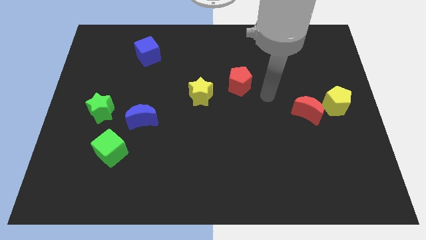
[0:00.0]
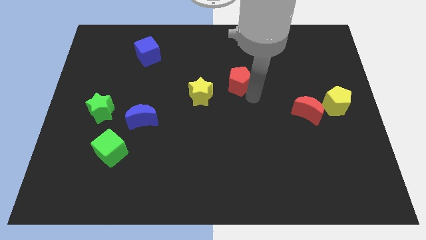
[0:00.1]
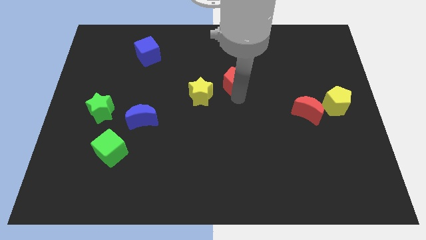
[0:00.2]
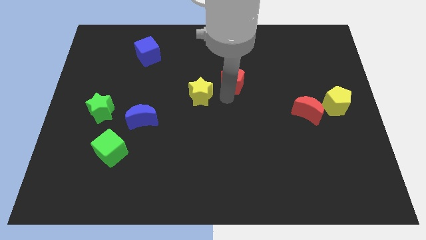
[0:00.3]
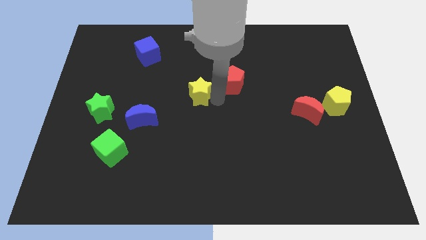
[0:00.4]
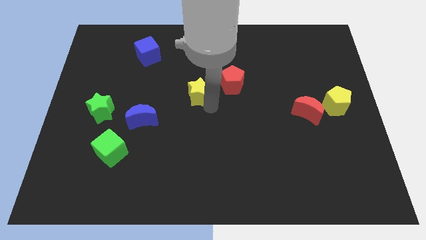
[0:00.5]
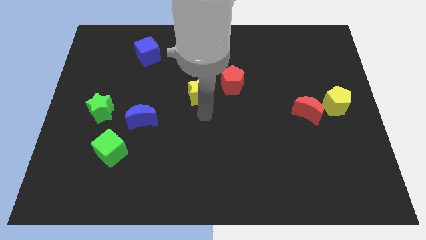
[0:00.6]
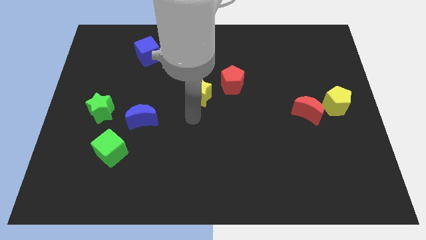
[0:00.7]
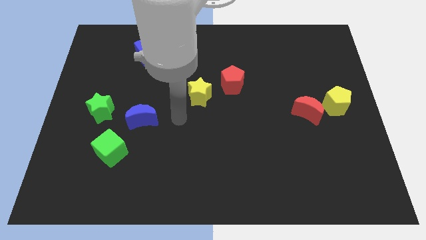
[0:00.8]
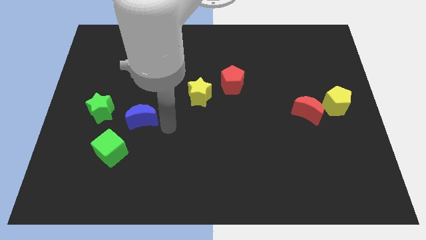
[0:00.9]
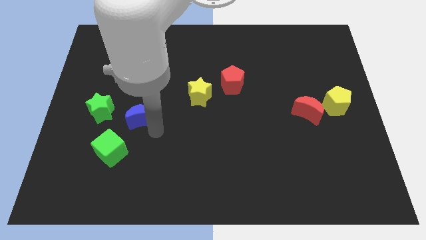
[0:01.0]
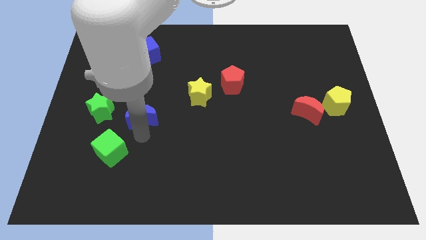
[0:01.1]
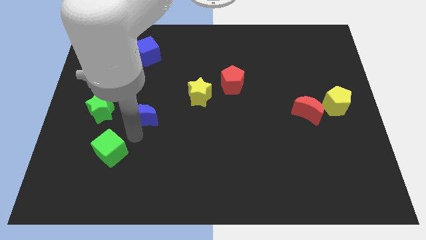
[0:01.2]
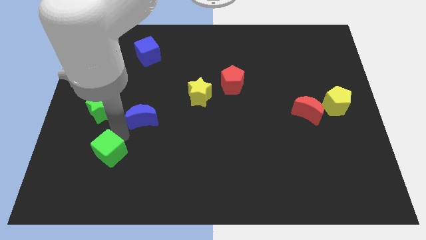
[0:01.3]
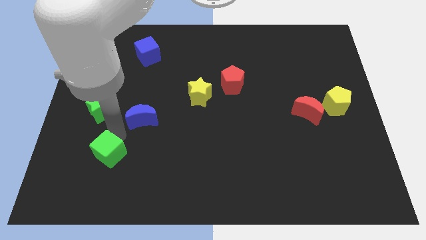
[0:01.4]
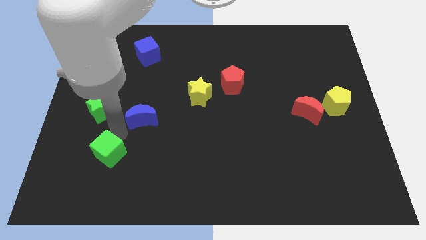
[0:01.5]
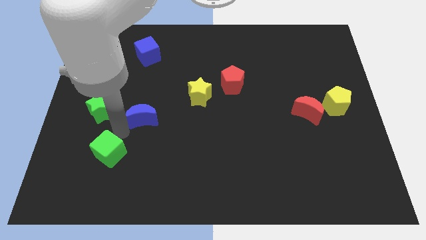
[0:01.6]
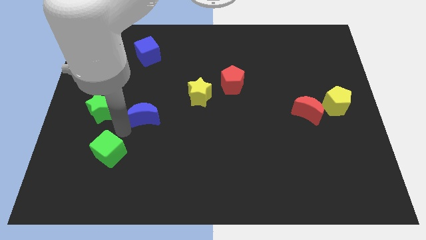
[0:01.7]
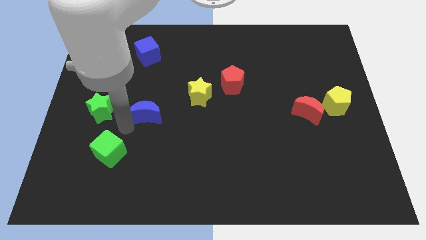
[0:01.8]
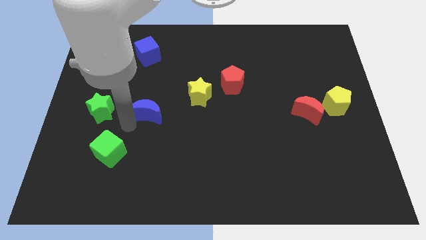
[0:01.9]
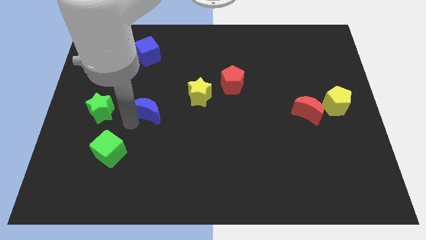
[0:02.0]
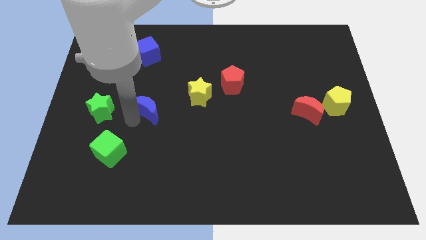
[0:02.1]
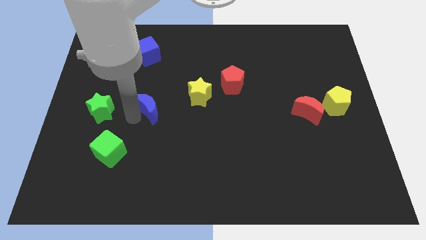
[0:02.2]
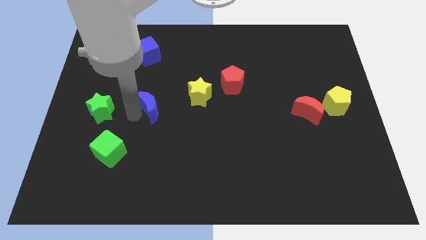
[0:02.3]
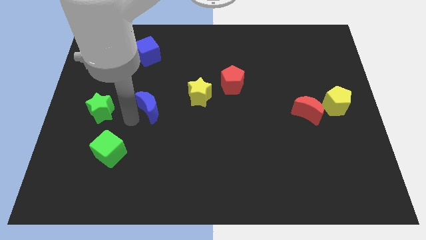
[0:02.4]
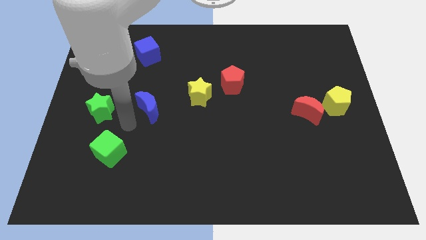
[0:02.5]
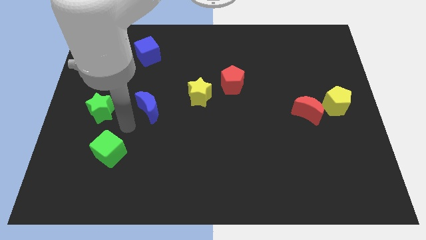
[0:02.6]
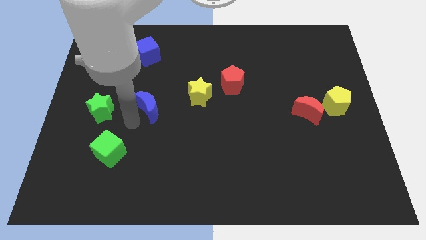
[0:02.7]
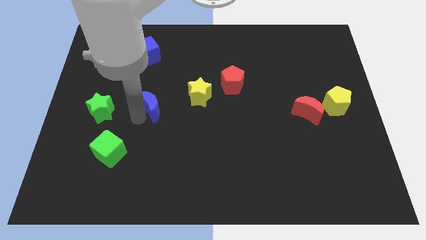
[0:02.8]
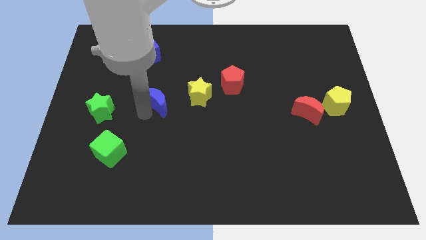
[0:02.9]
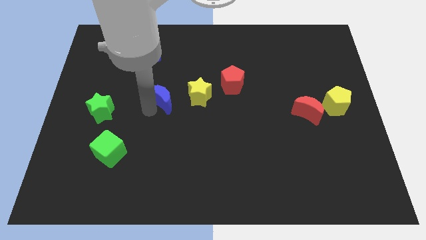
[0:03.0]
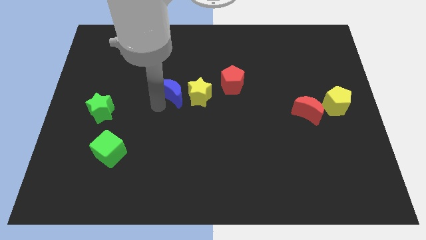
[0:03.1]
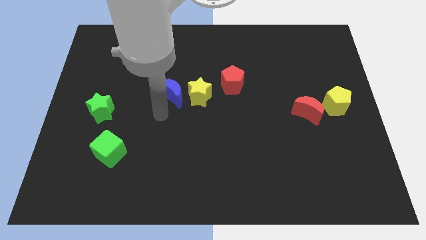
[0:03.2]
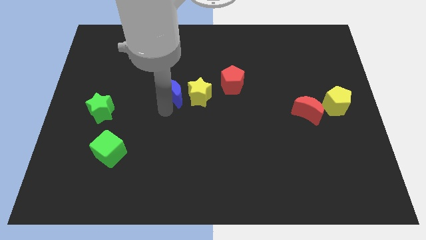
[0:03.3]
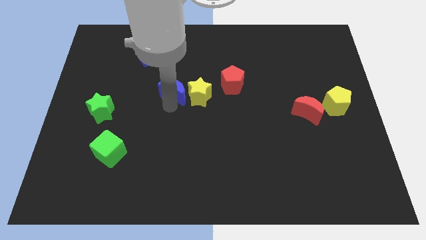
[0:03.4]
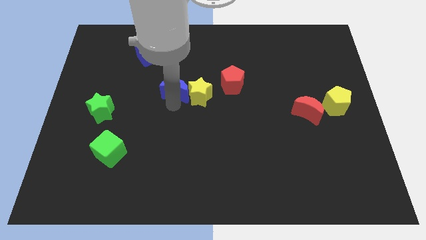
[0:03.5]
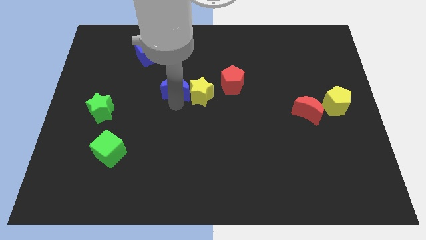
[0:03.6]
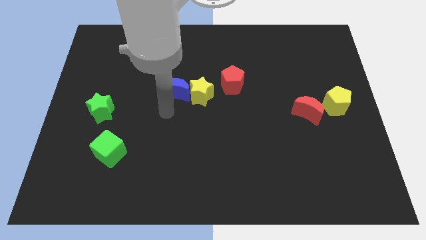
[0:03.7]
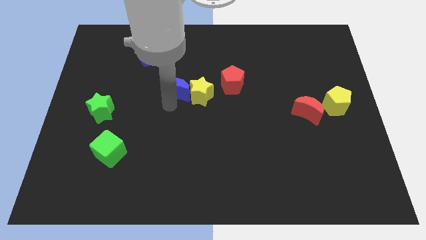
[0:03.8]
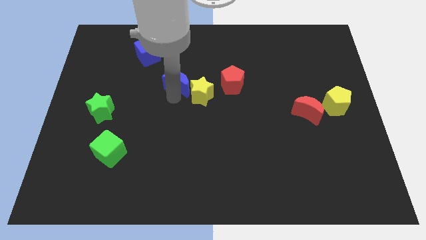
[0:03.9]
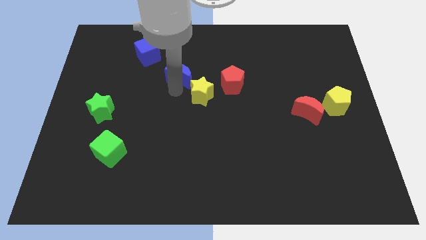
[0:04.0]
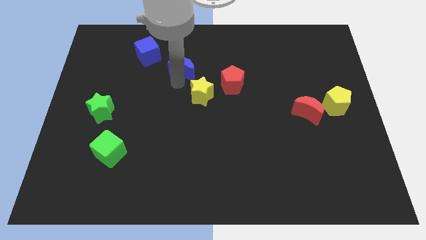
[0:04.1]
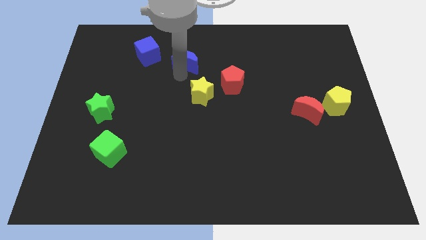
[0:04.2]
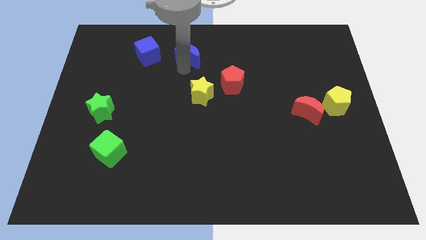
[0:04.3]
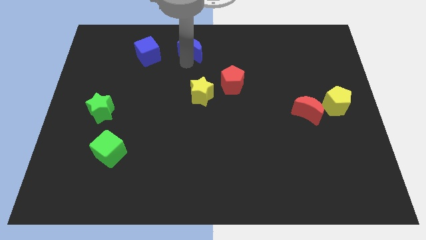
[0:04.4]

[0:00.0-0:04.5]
put the blue moon to the top

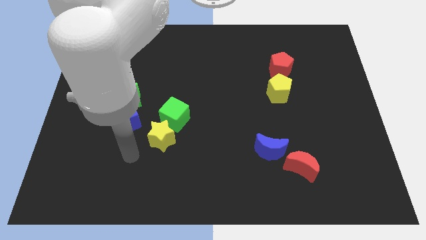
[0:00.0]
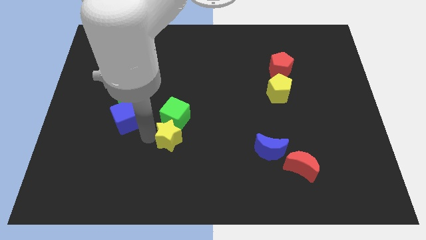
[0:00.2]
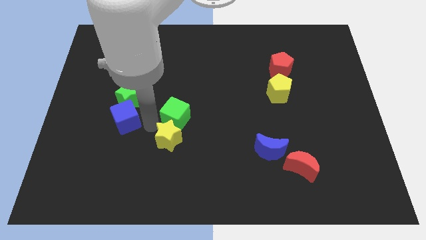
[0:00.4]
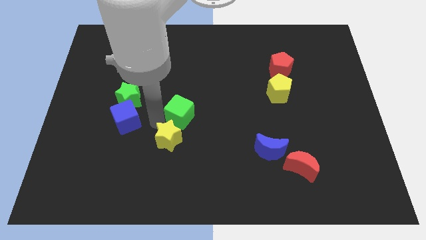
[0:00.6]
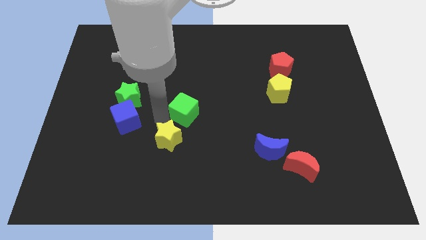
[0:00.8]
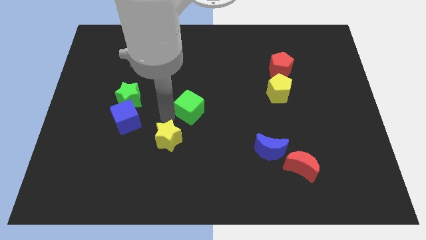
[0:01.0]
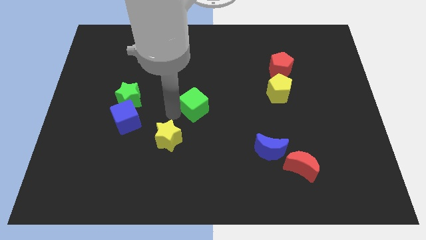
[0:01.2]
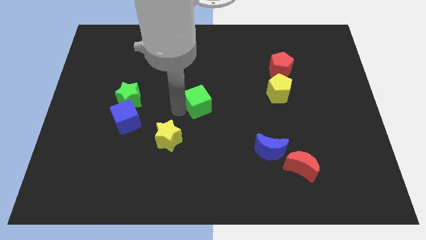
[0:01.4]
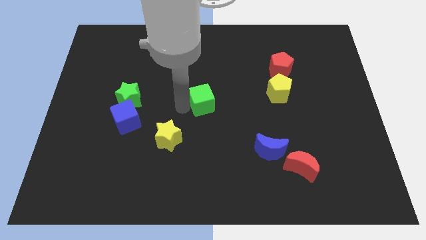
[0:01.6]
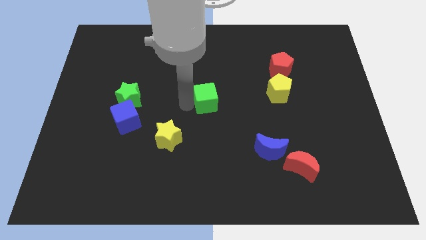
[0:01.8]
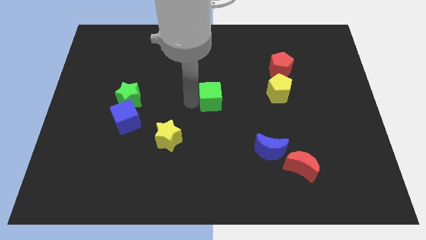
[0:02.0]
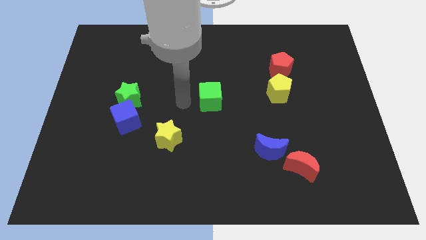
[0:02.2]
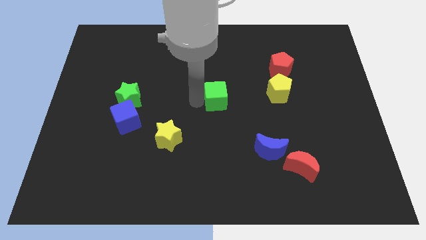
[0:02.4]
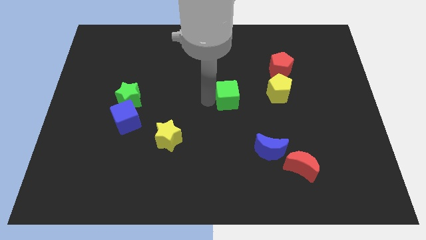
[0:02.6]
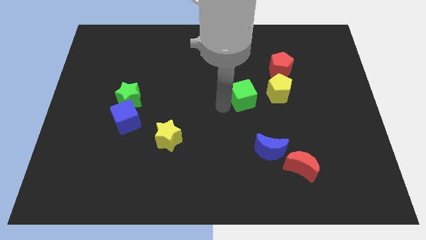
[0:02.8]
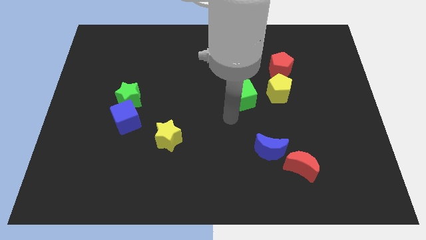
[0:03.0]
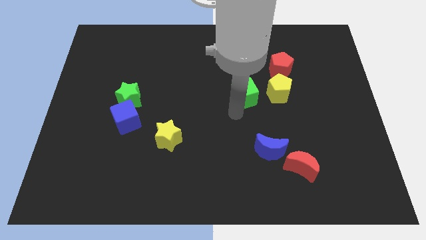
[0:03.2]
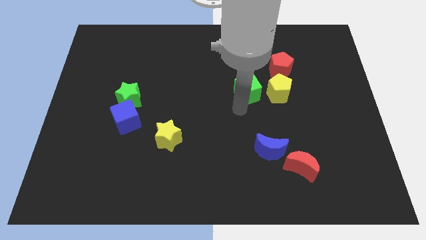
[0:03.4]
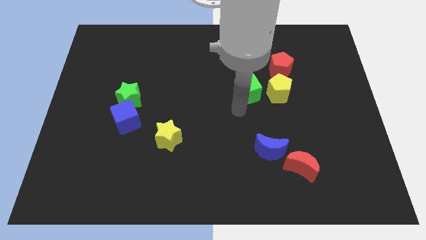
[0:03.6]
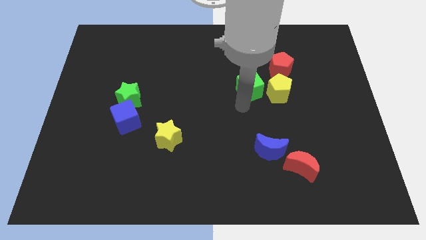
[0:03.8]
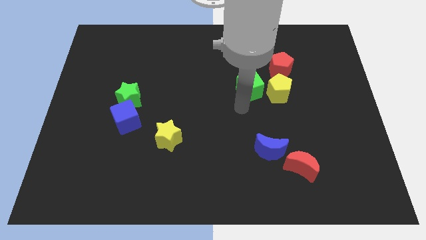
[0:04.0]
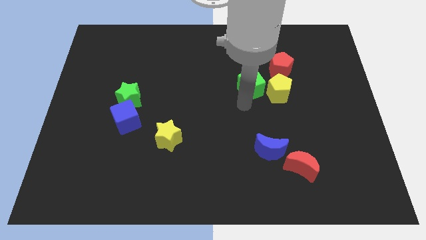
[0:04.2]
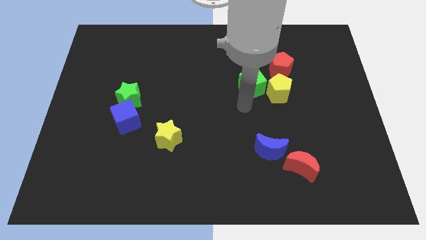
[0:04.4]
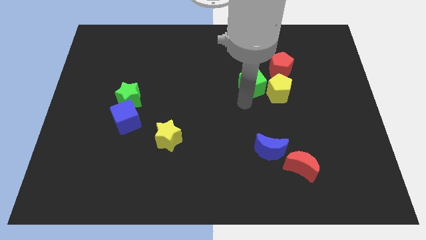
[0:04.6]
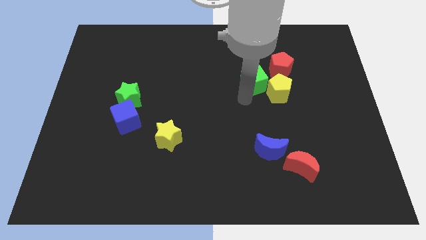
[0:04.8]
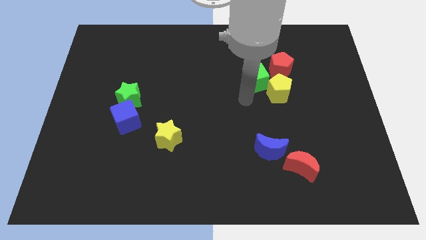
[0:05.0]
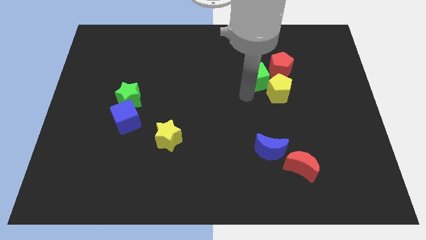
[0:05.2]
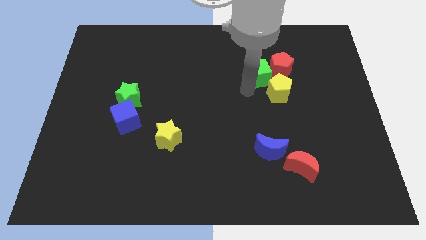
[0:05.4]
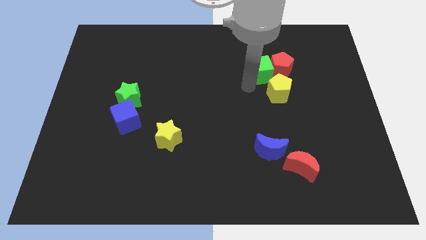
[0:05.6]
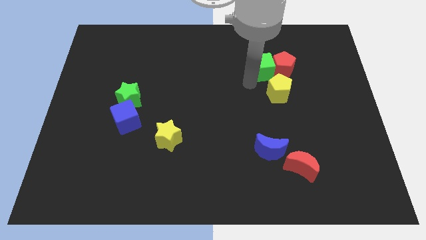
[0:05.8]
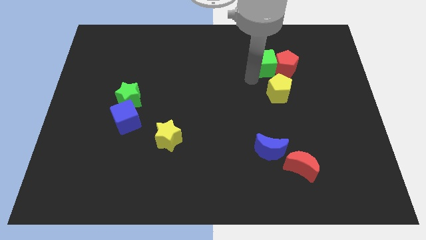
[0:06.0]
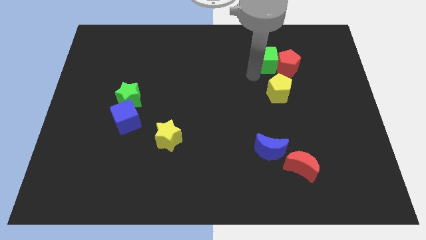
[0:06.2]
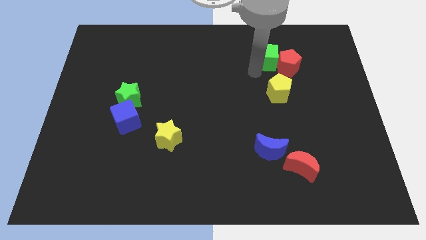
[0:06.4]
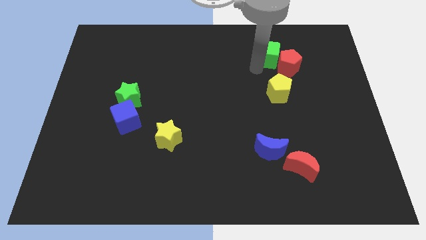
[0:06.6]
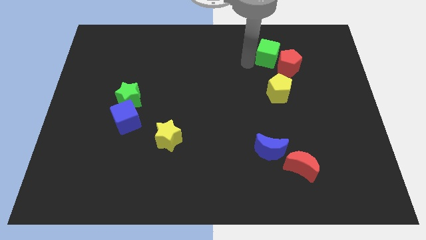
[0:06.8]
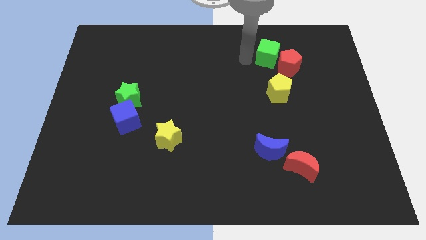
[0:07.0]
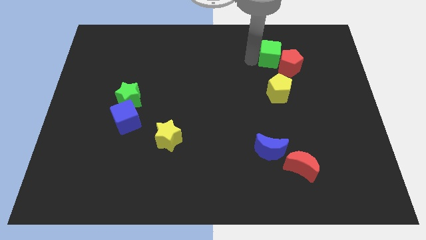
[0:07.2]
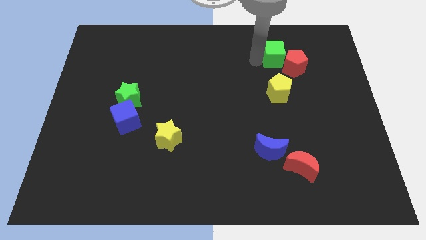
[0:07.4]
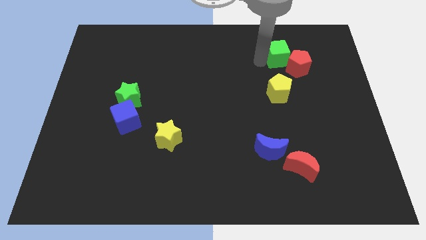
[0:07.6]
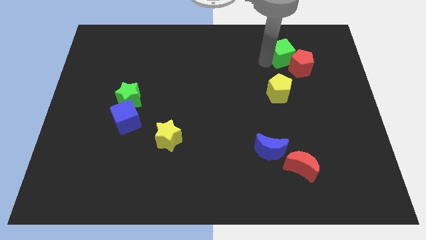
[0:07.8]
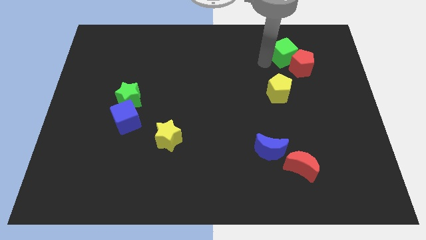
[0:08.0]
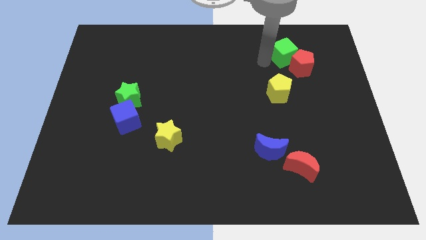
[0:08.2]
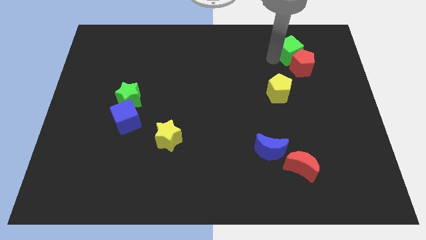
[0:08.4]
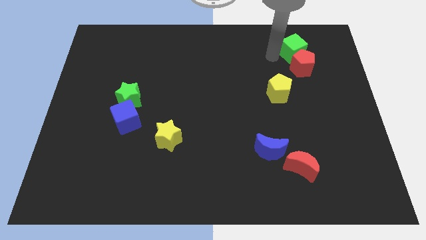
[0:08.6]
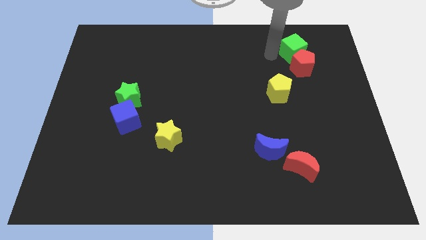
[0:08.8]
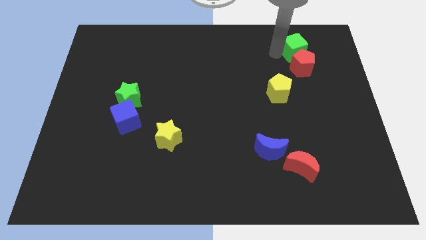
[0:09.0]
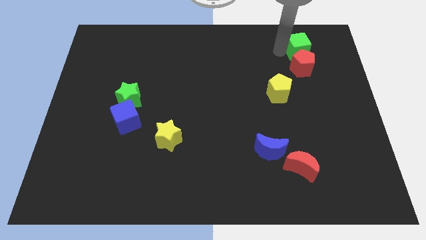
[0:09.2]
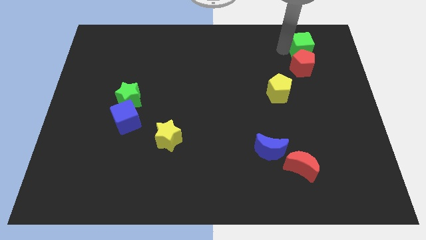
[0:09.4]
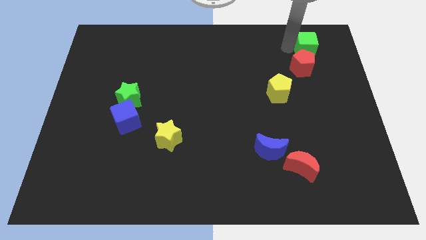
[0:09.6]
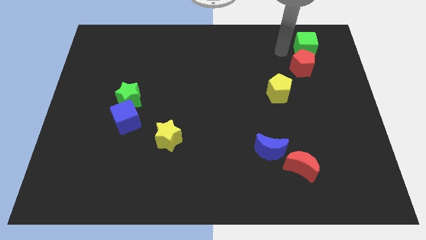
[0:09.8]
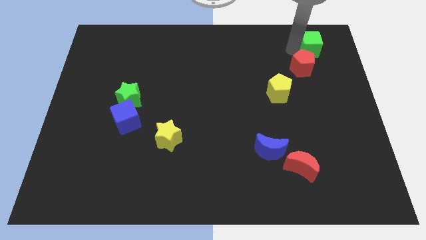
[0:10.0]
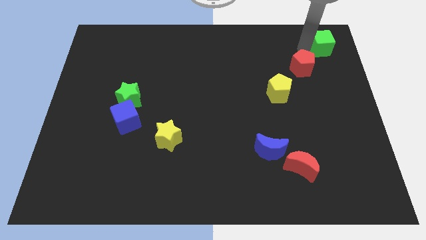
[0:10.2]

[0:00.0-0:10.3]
put the green cube to the upper right corner
